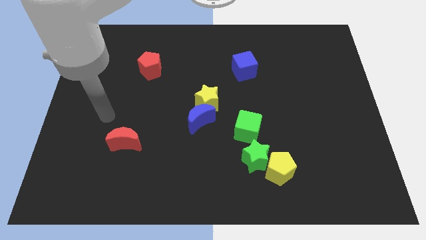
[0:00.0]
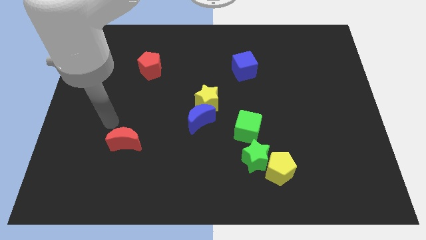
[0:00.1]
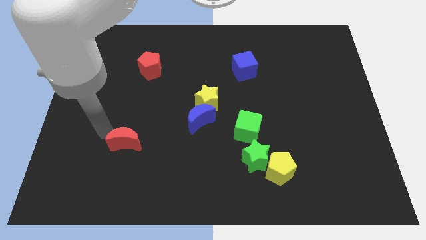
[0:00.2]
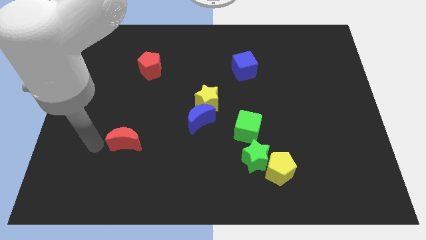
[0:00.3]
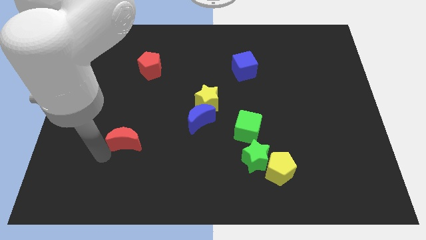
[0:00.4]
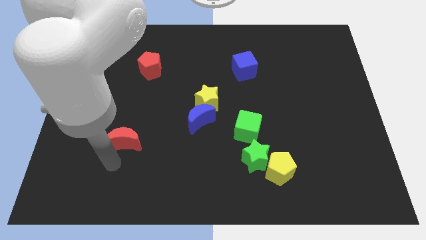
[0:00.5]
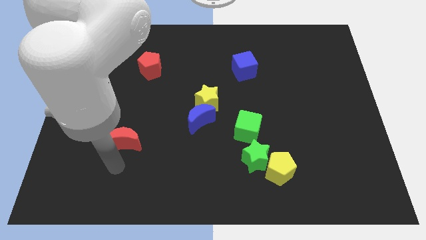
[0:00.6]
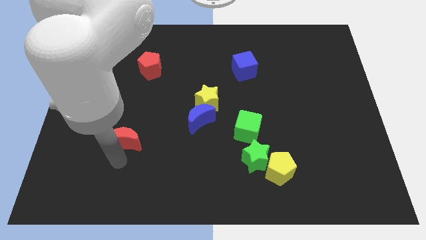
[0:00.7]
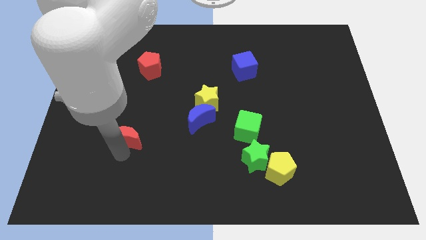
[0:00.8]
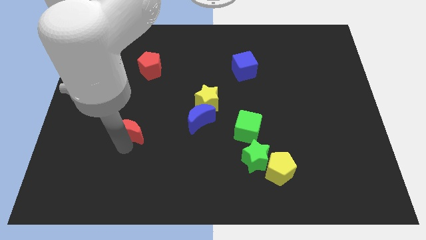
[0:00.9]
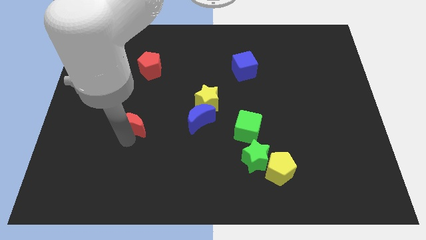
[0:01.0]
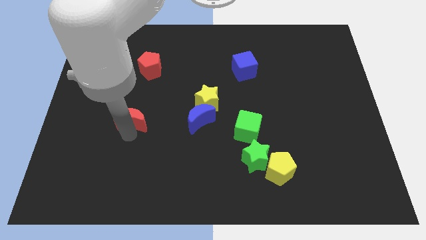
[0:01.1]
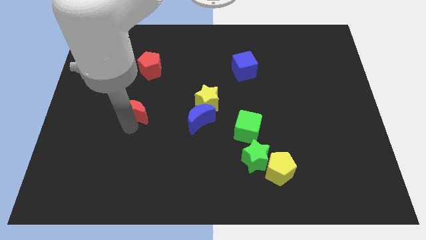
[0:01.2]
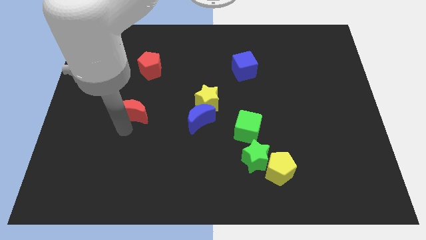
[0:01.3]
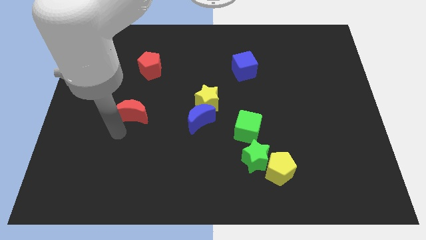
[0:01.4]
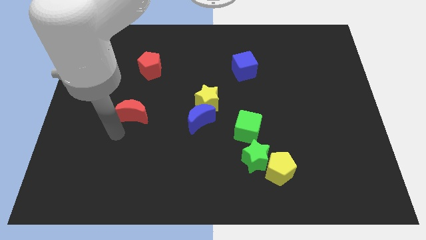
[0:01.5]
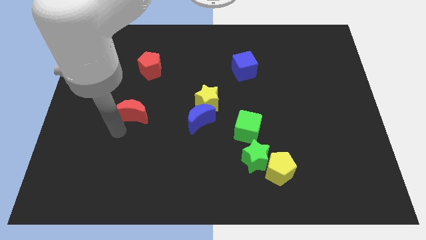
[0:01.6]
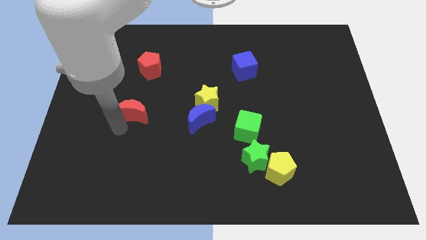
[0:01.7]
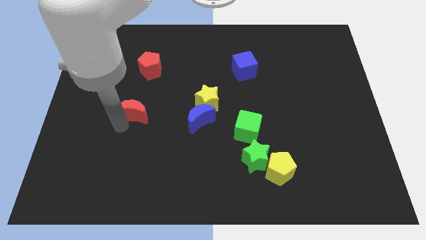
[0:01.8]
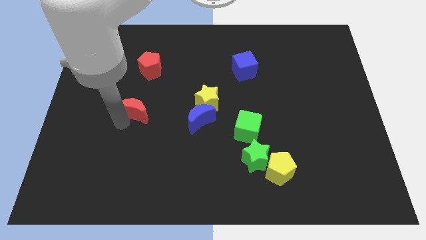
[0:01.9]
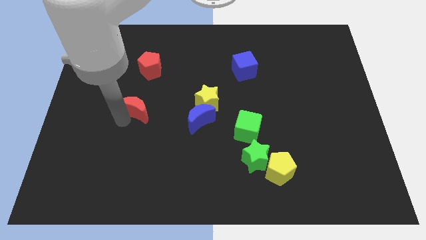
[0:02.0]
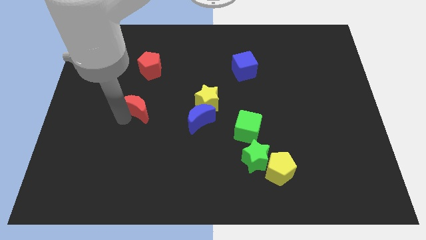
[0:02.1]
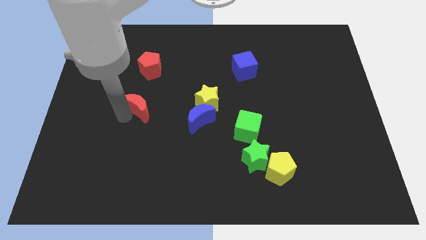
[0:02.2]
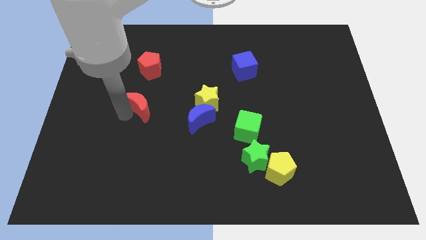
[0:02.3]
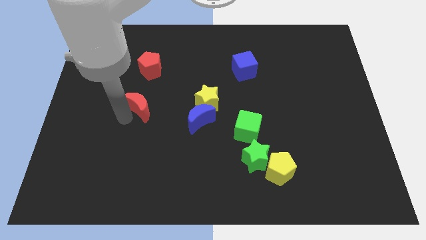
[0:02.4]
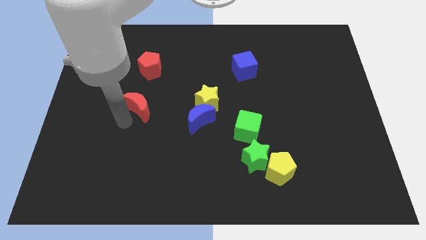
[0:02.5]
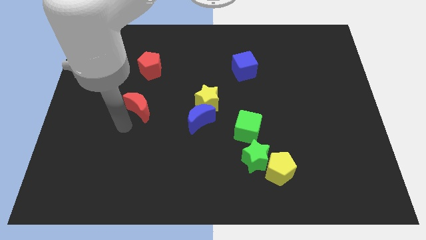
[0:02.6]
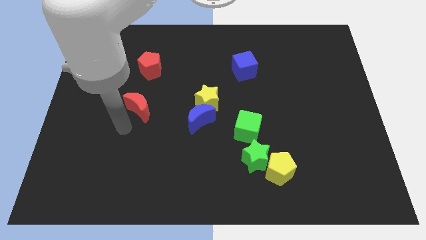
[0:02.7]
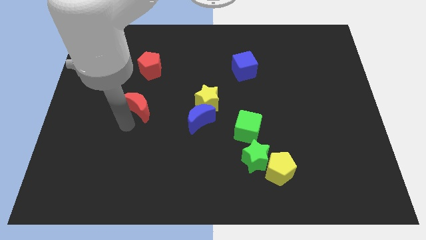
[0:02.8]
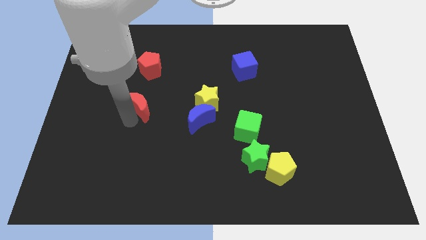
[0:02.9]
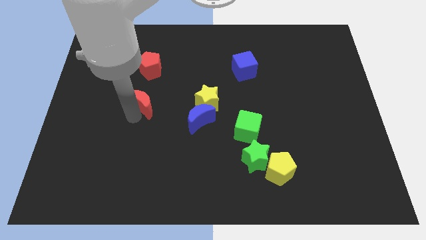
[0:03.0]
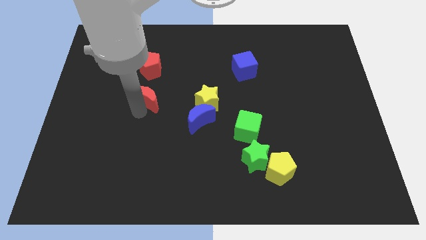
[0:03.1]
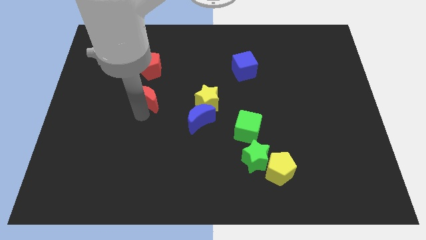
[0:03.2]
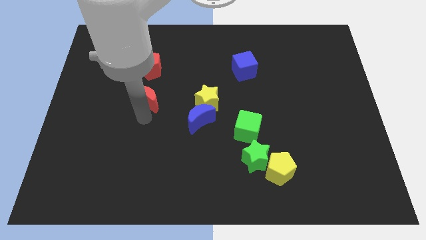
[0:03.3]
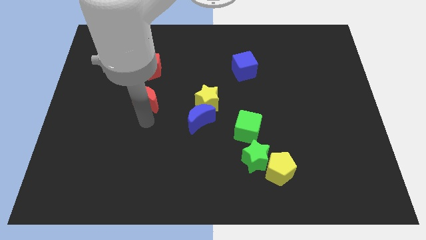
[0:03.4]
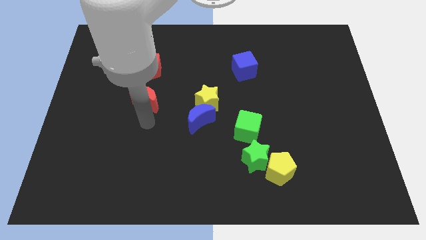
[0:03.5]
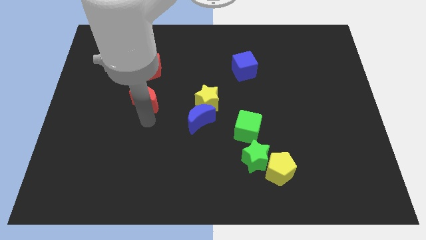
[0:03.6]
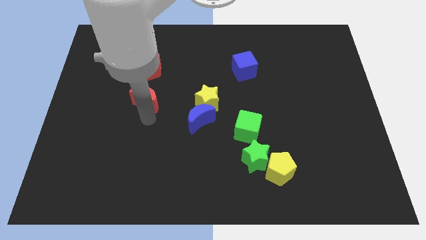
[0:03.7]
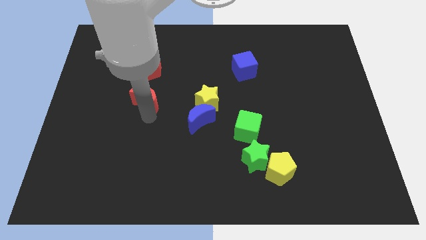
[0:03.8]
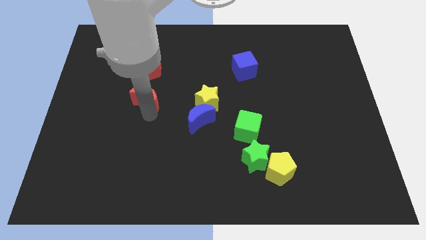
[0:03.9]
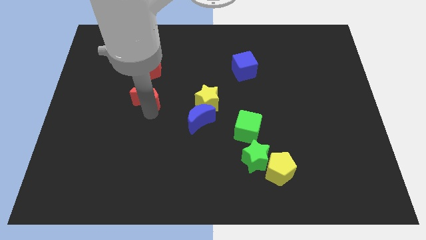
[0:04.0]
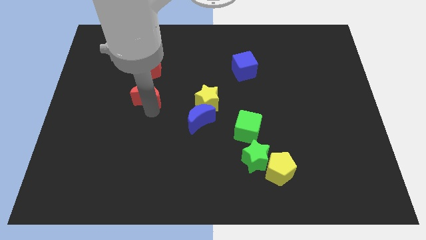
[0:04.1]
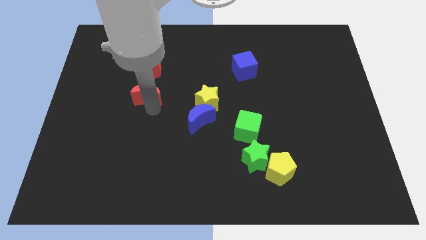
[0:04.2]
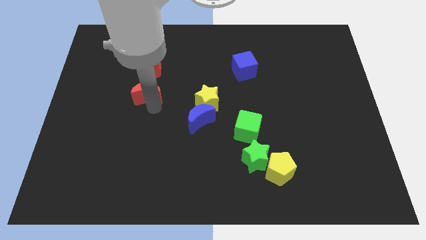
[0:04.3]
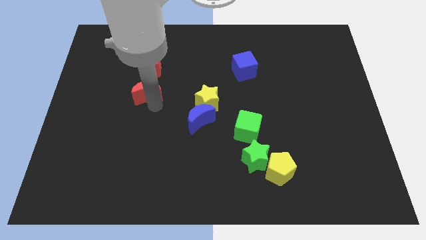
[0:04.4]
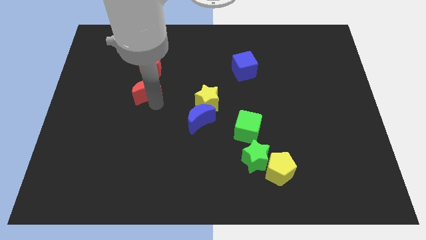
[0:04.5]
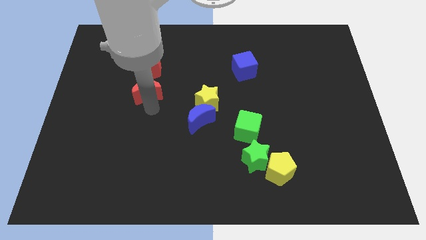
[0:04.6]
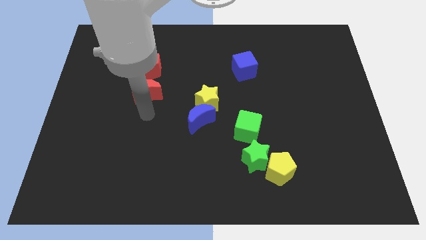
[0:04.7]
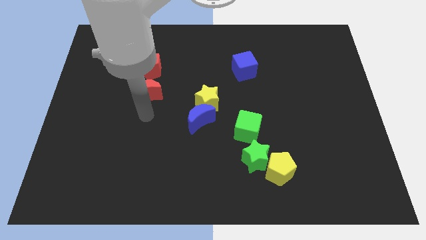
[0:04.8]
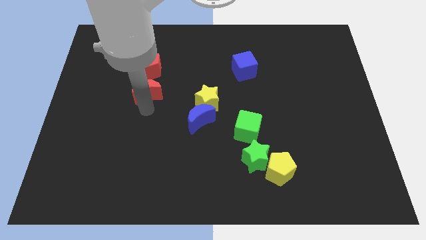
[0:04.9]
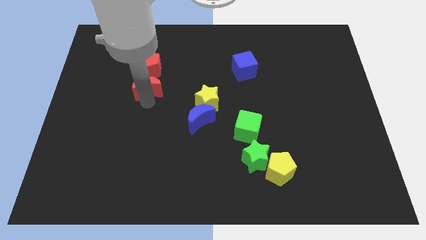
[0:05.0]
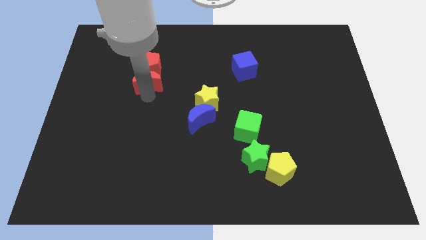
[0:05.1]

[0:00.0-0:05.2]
put the red moon close to the red pentagon

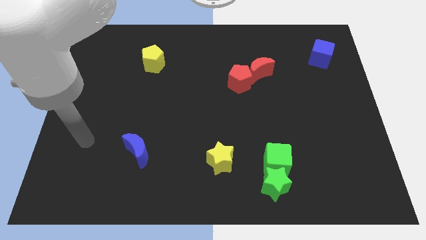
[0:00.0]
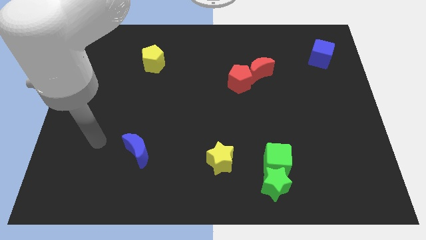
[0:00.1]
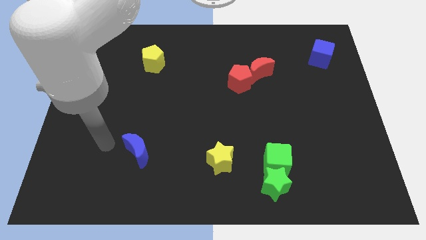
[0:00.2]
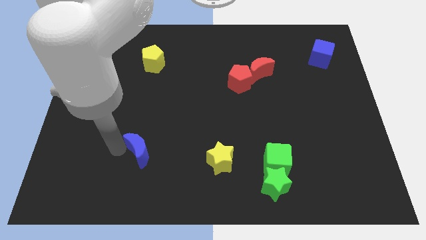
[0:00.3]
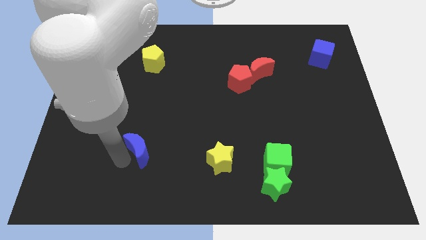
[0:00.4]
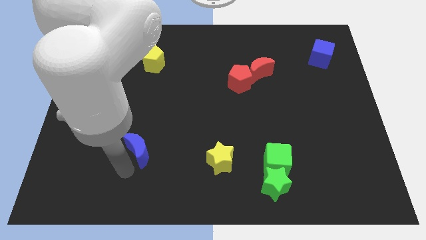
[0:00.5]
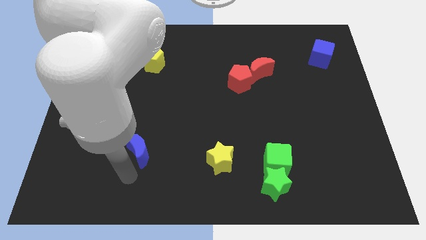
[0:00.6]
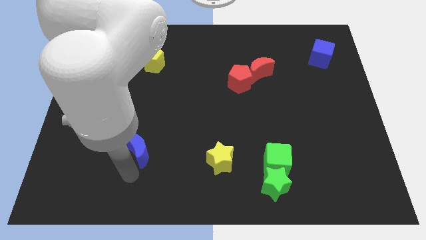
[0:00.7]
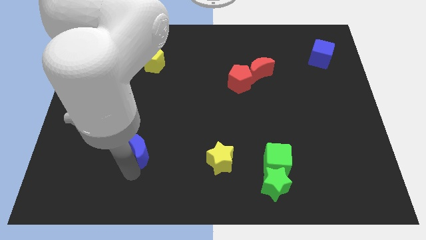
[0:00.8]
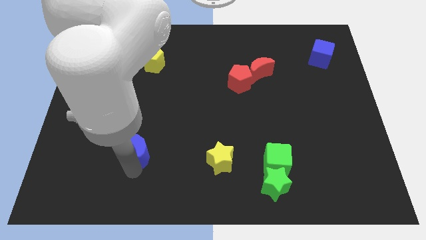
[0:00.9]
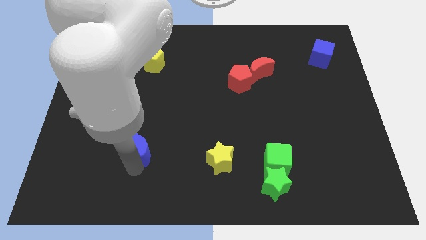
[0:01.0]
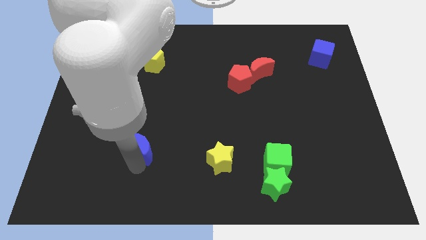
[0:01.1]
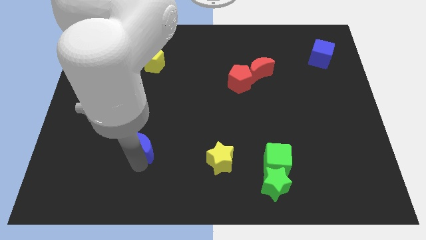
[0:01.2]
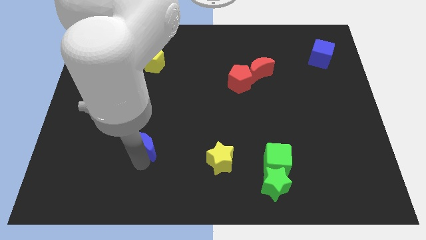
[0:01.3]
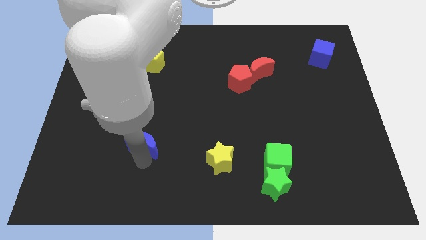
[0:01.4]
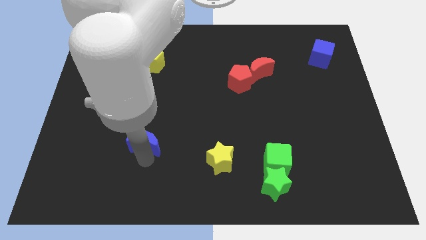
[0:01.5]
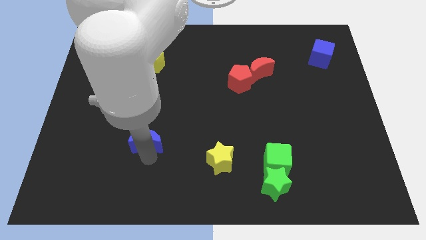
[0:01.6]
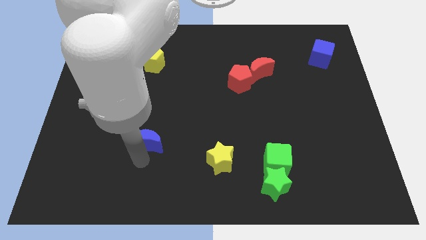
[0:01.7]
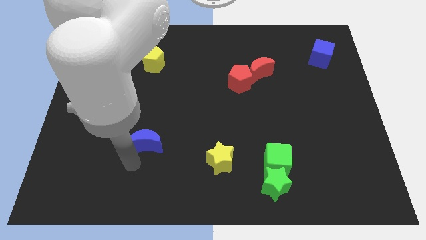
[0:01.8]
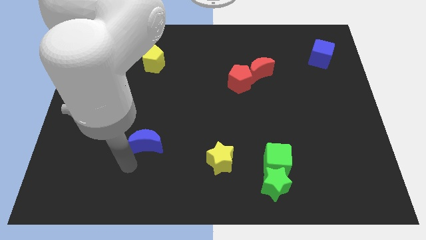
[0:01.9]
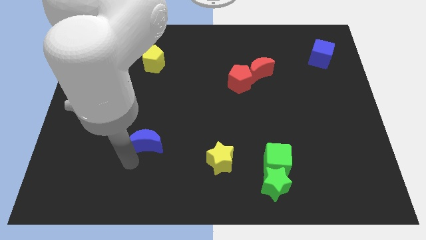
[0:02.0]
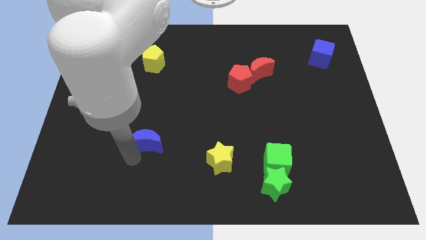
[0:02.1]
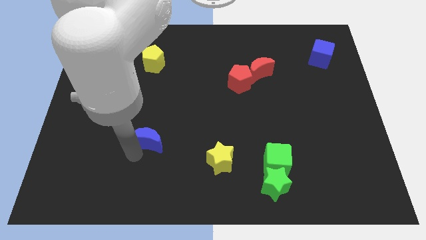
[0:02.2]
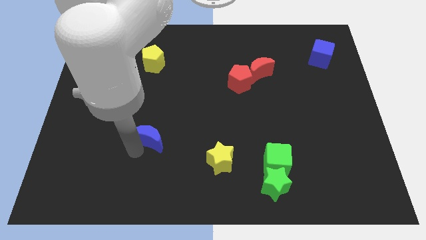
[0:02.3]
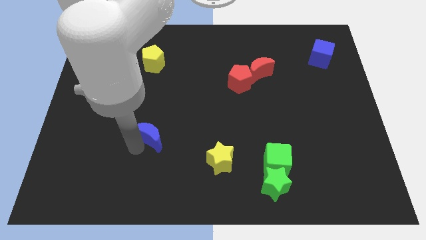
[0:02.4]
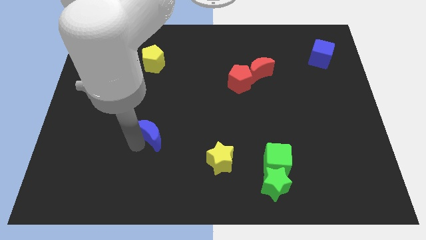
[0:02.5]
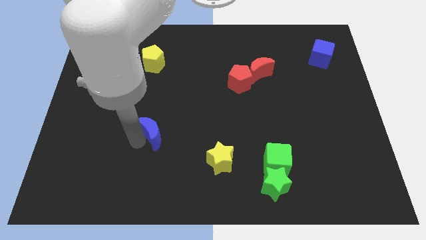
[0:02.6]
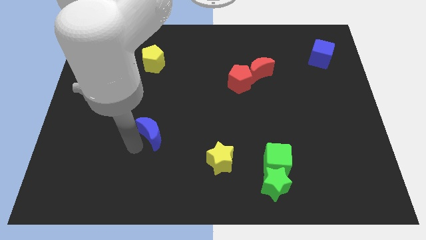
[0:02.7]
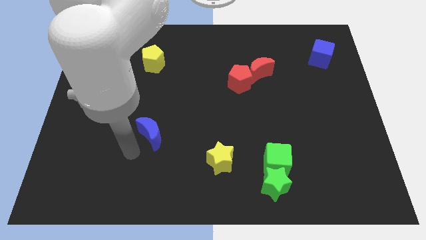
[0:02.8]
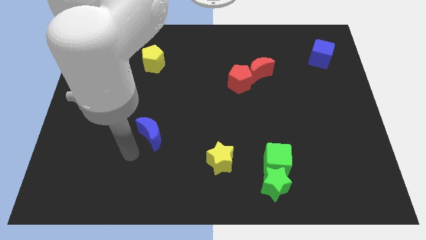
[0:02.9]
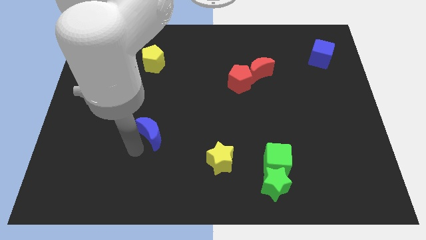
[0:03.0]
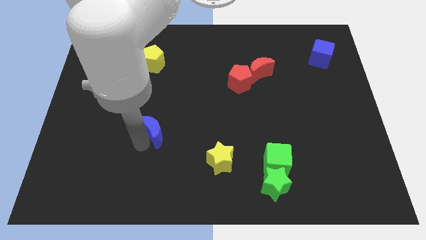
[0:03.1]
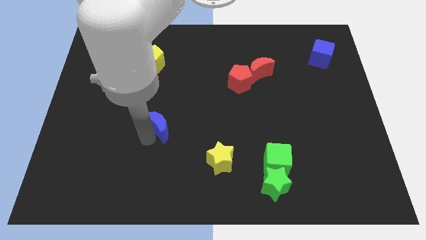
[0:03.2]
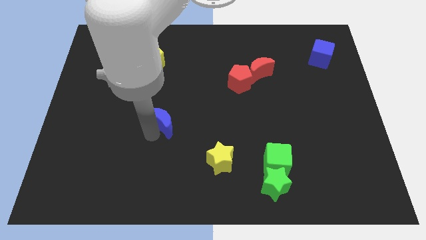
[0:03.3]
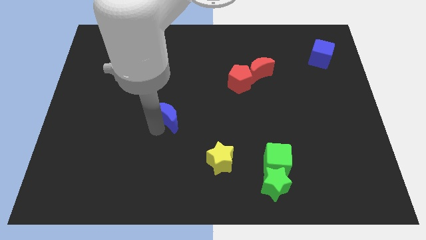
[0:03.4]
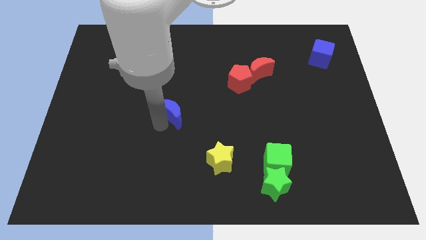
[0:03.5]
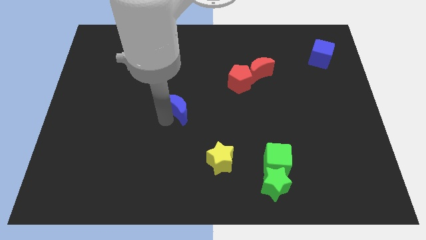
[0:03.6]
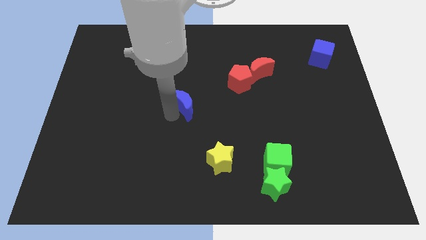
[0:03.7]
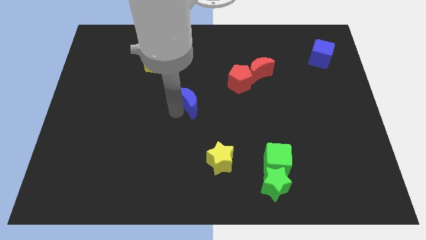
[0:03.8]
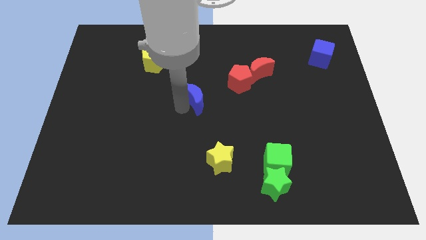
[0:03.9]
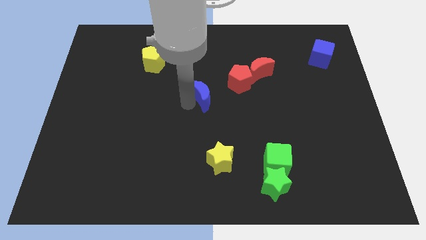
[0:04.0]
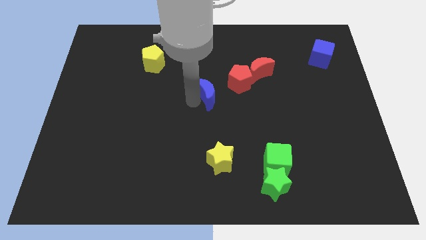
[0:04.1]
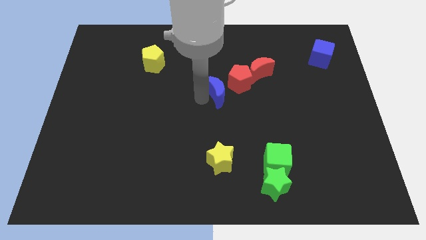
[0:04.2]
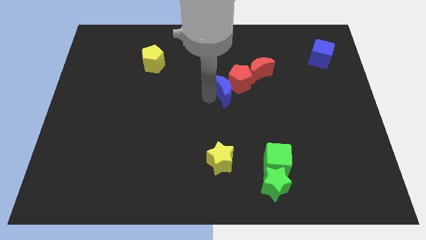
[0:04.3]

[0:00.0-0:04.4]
push the blue moon towards the red pentagon
